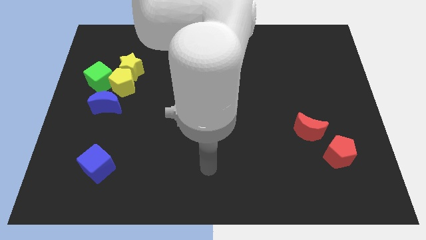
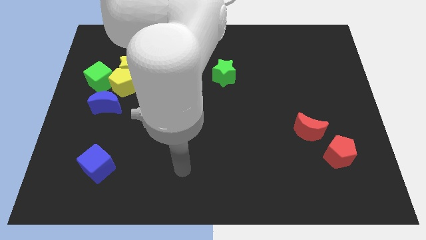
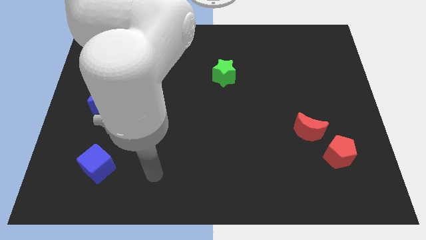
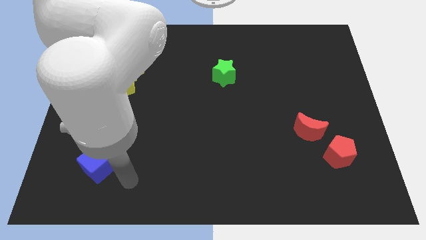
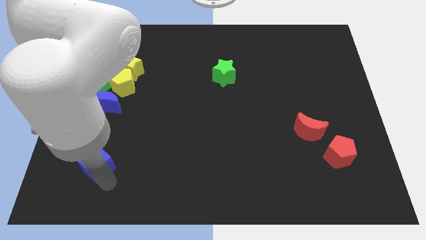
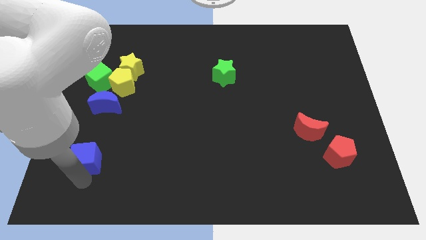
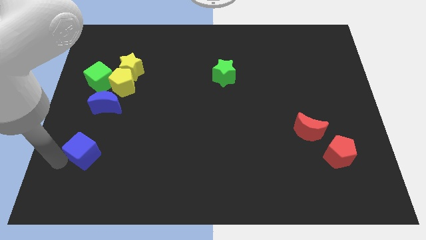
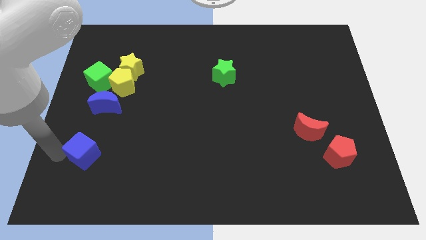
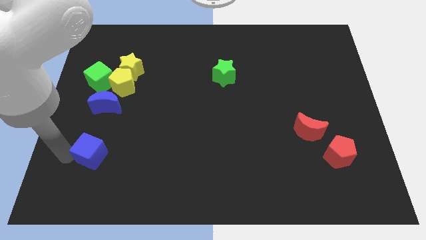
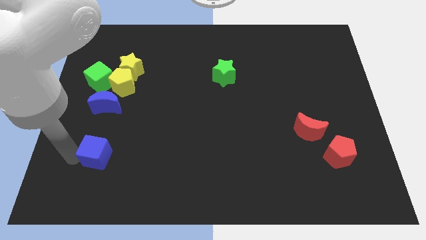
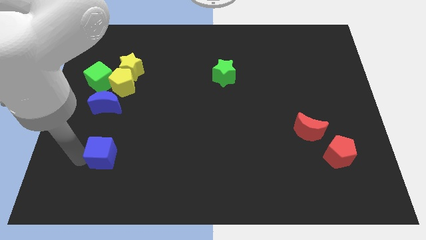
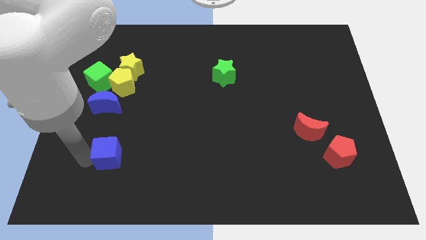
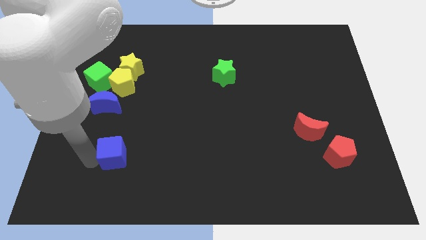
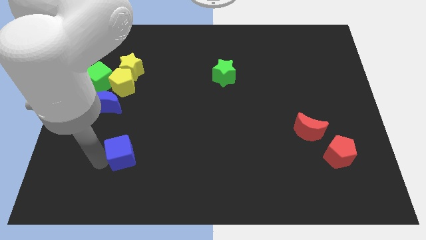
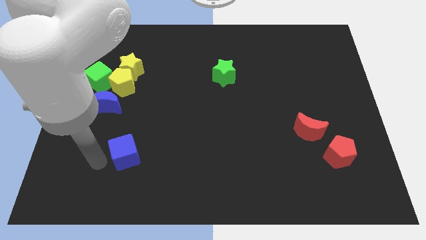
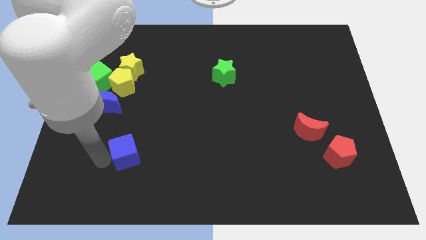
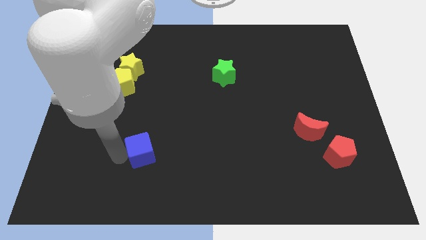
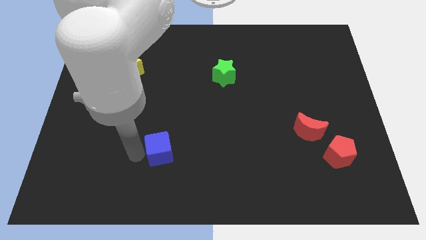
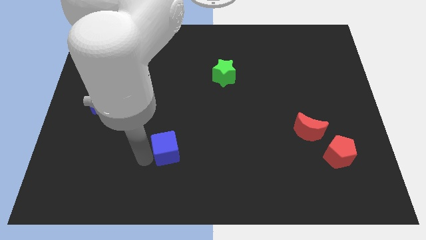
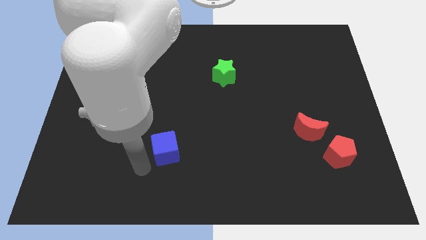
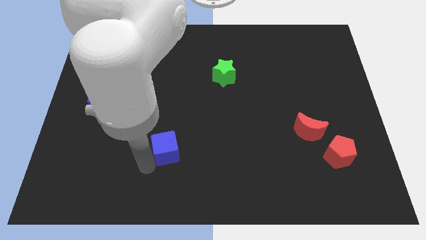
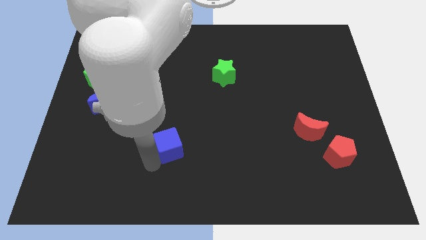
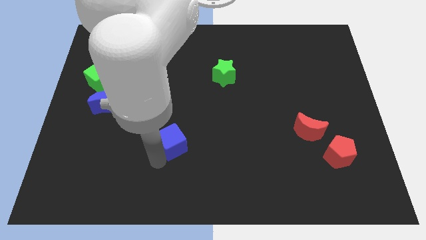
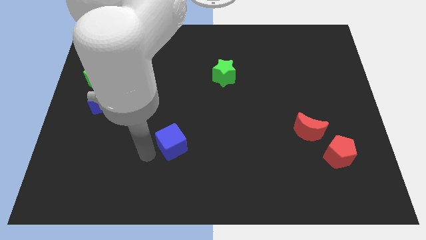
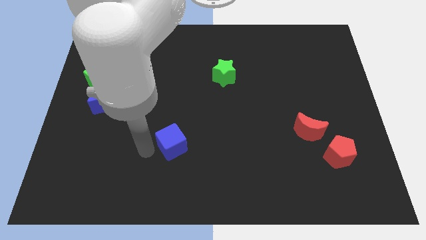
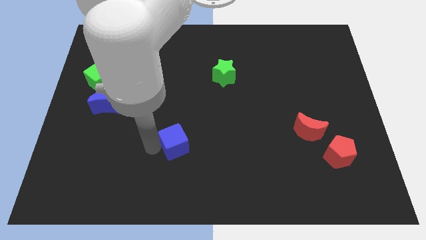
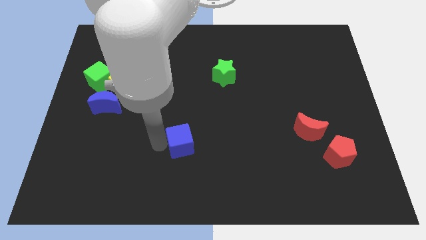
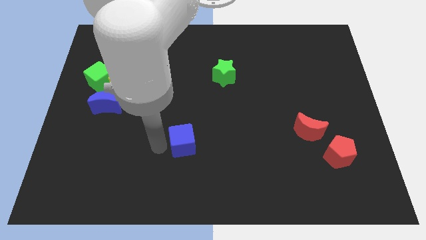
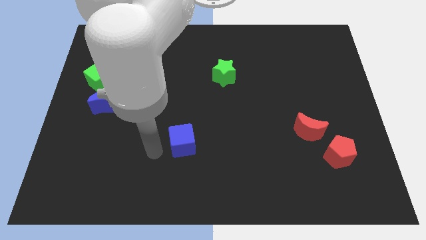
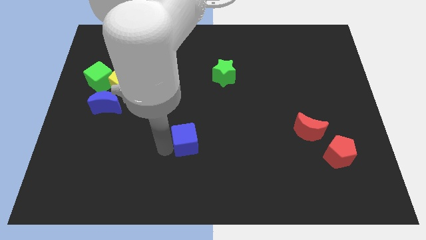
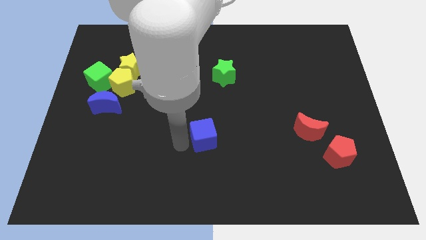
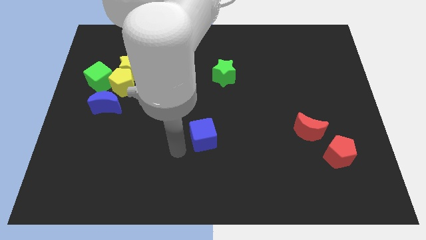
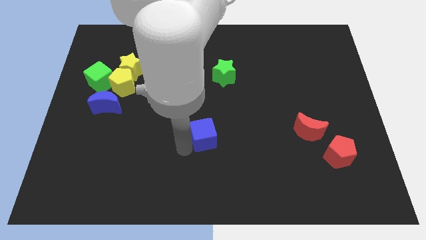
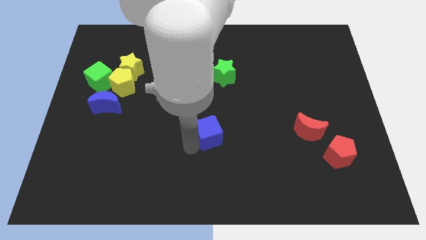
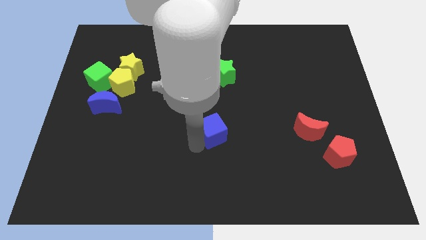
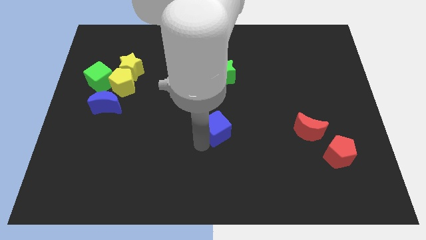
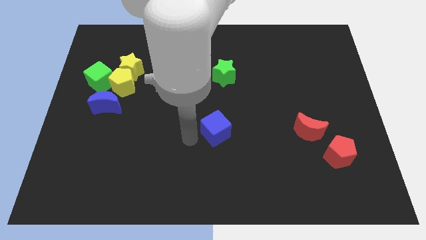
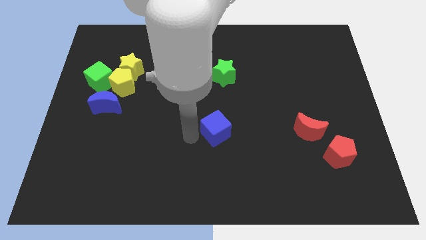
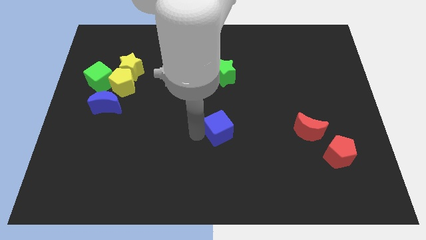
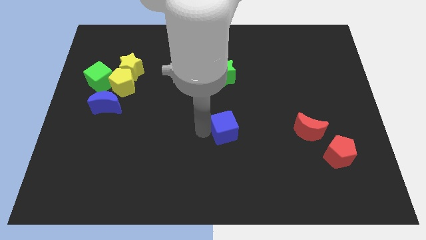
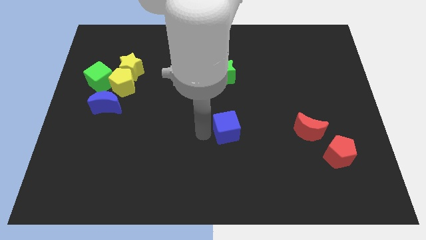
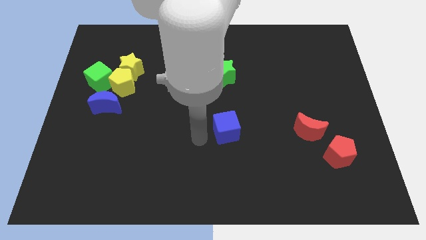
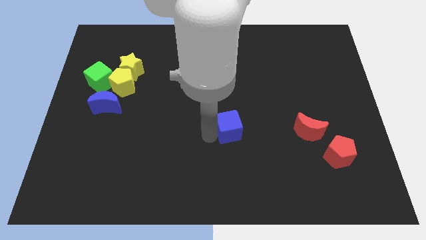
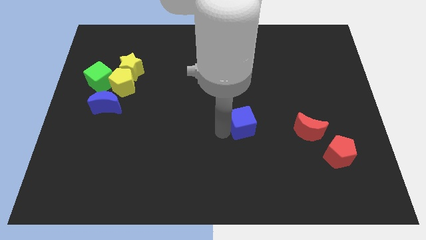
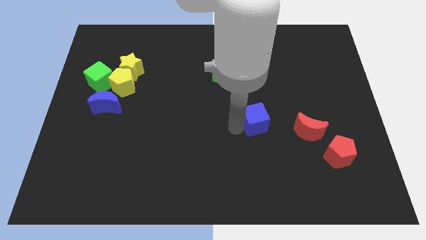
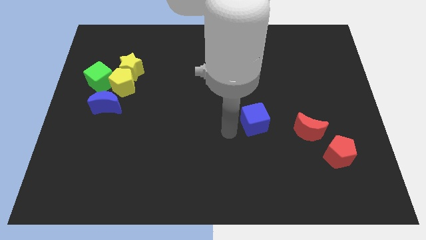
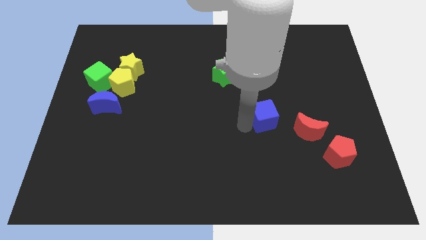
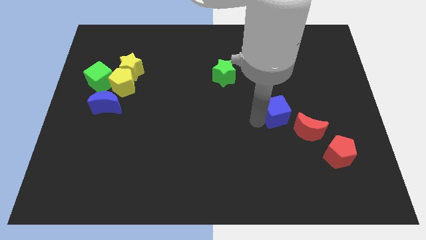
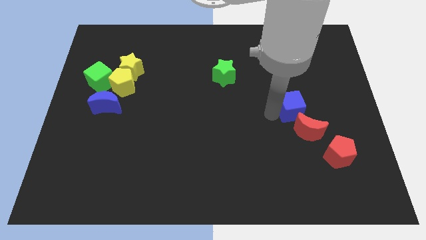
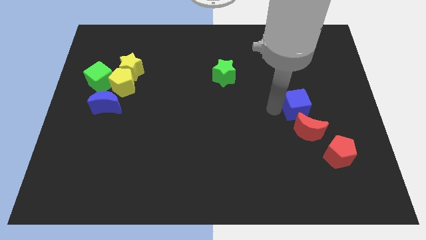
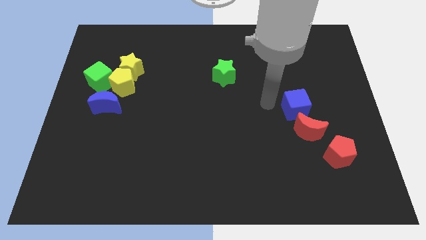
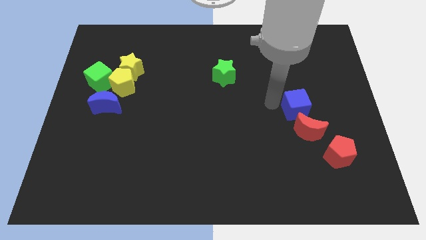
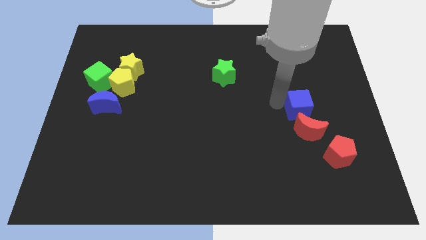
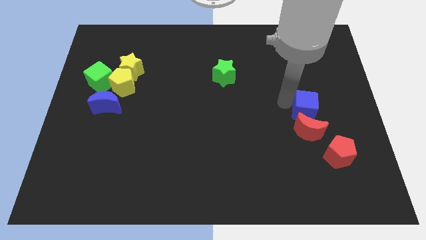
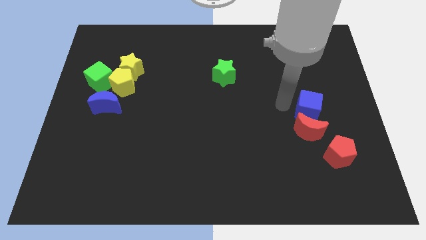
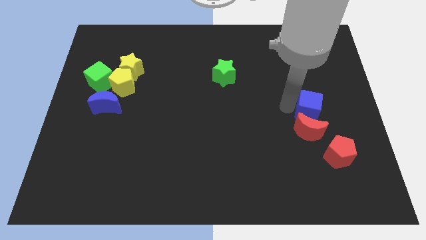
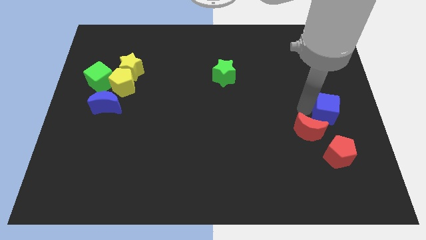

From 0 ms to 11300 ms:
slide the blue cube to the right side of the board

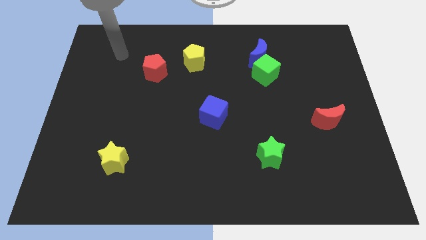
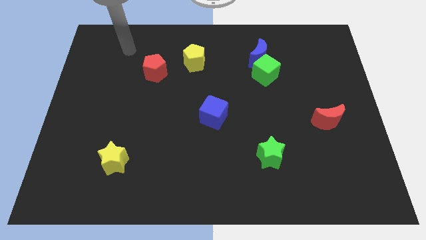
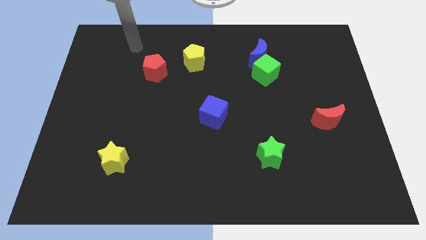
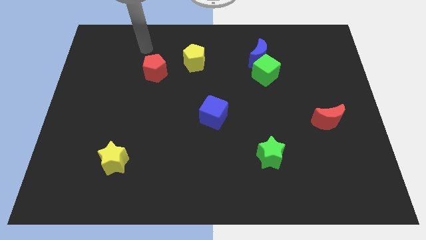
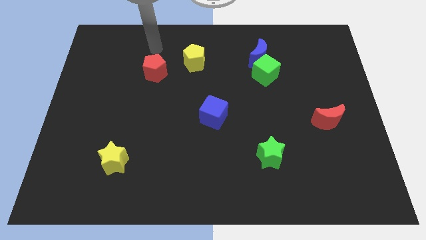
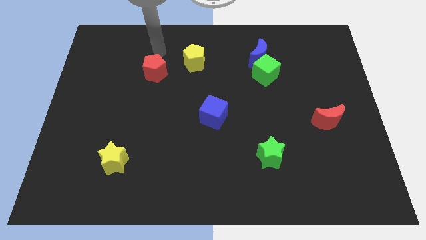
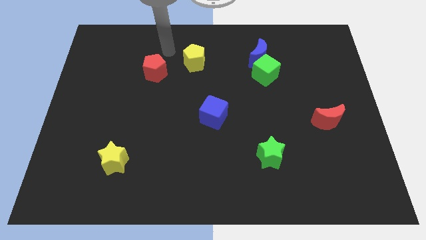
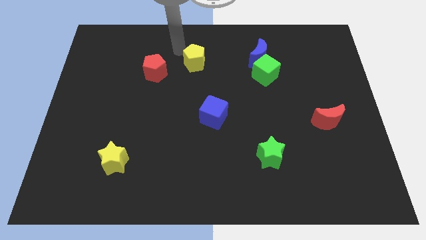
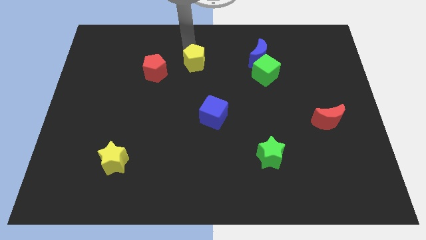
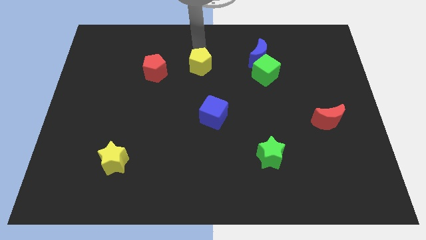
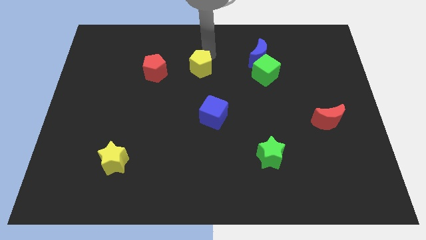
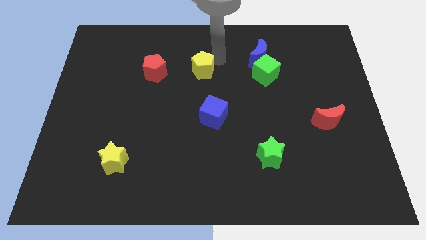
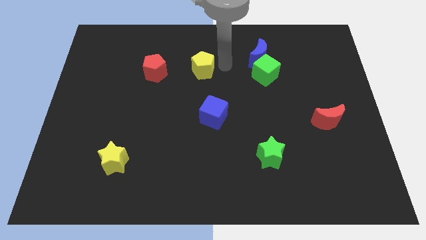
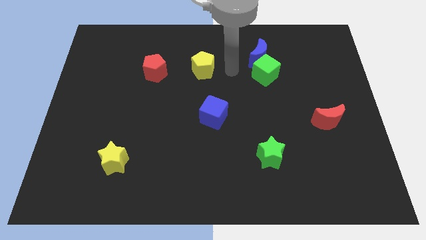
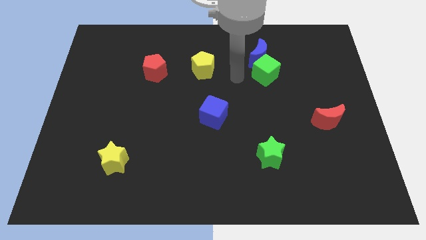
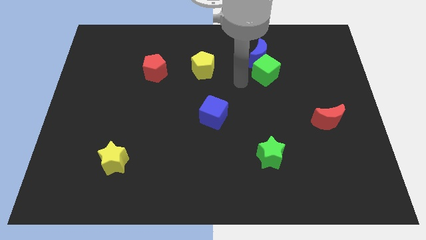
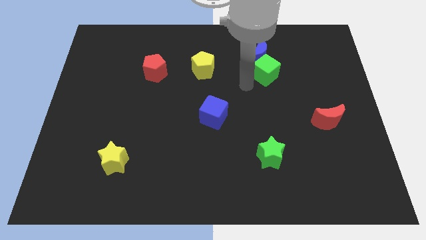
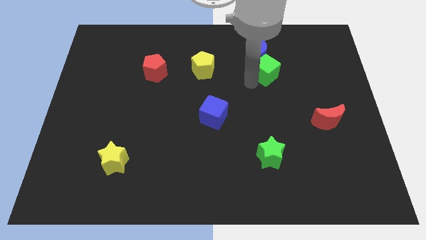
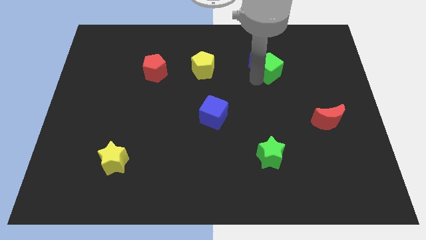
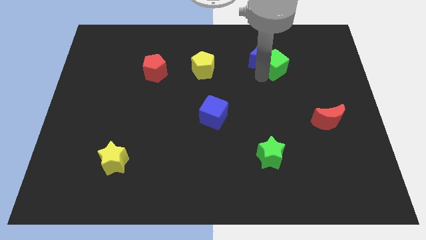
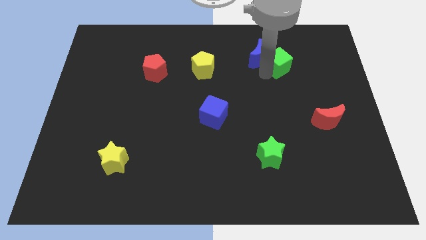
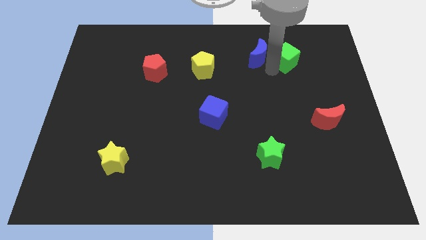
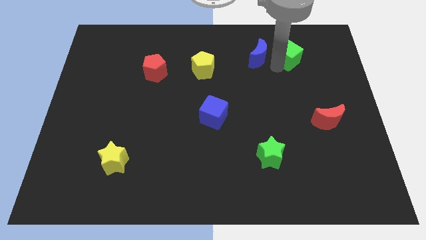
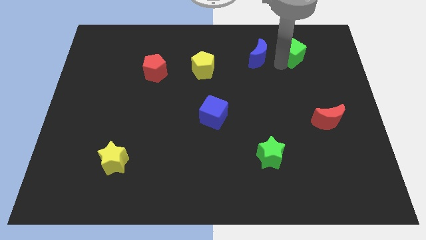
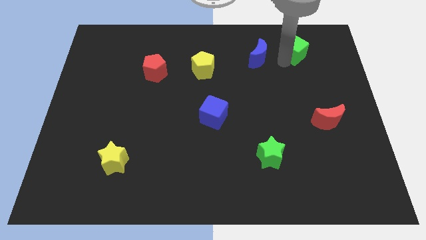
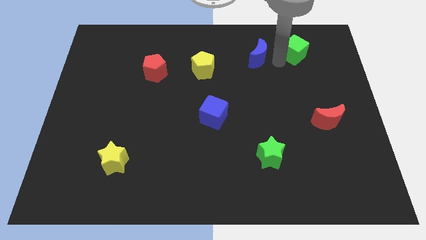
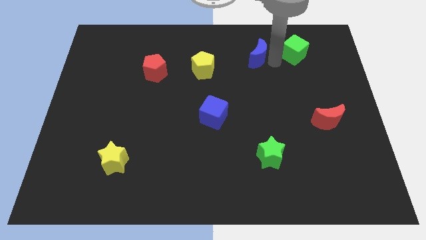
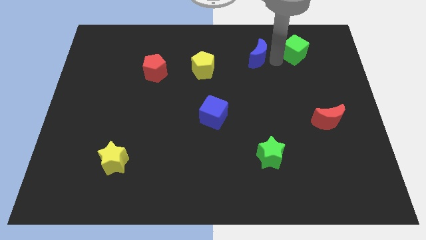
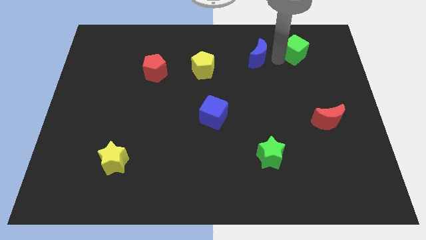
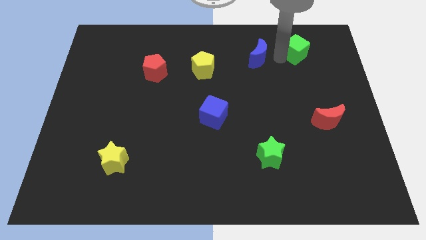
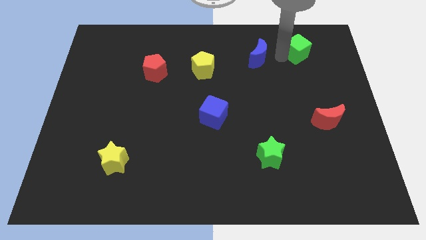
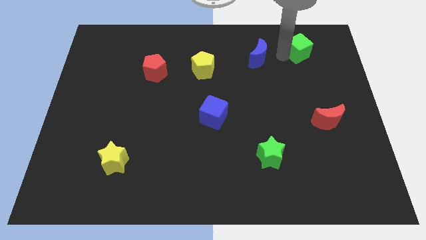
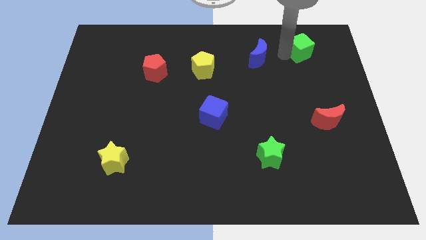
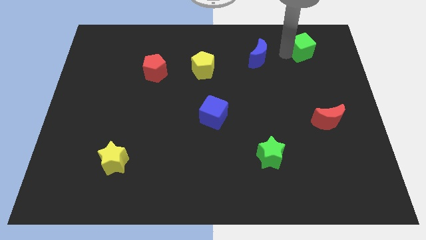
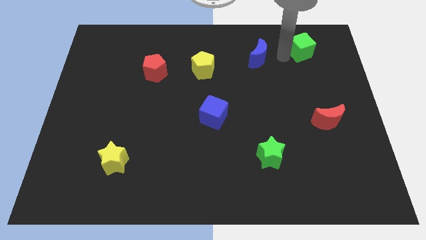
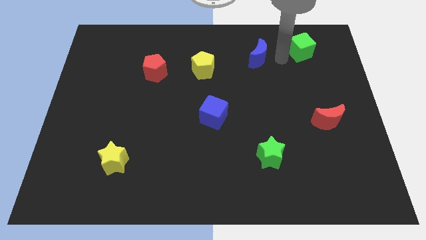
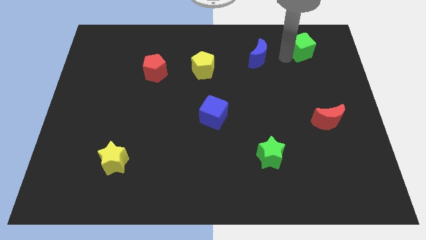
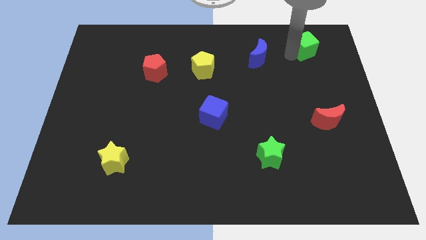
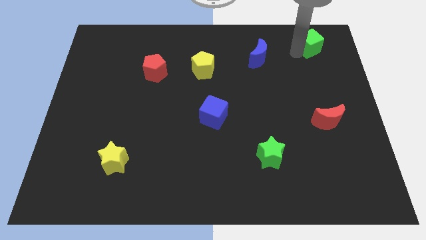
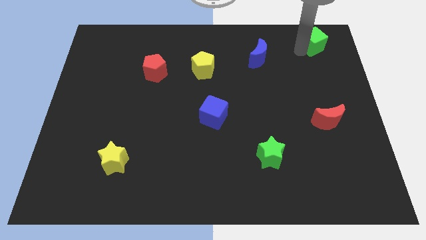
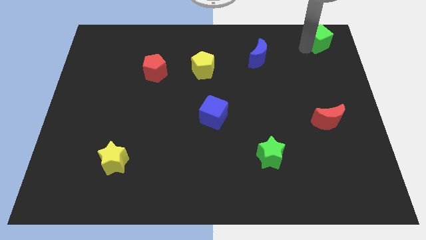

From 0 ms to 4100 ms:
put the green cube to the upper right corner
